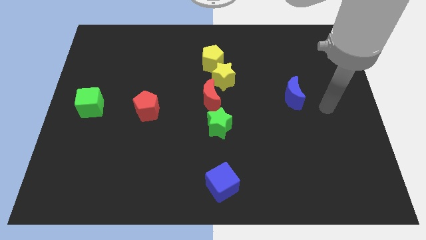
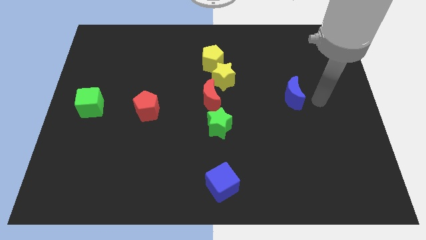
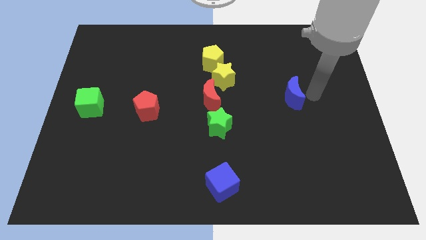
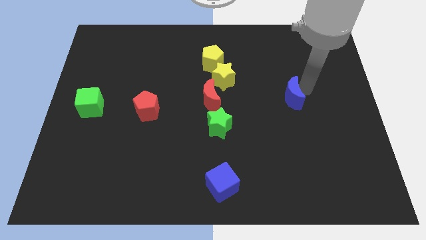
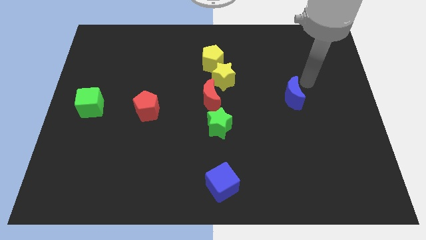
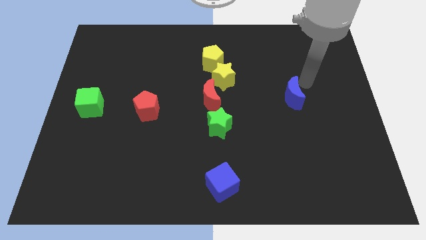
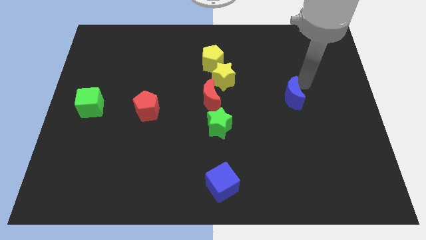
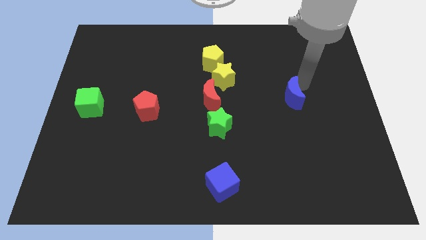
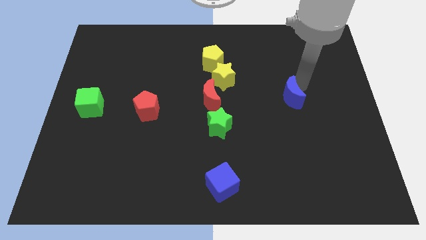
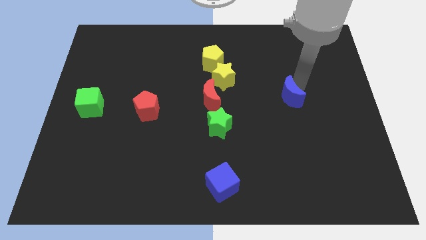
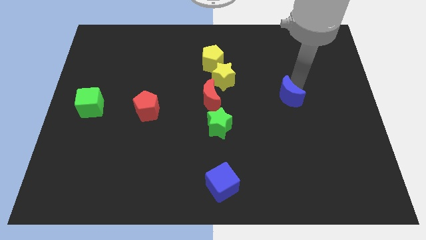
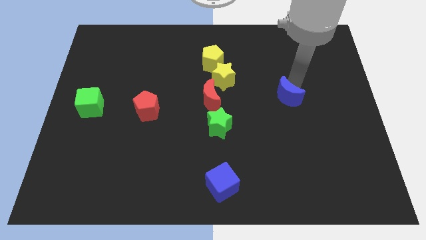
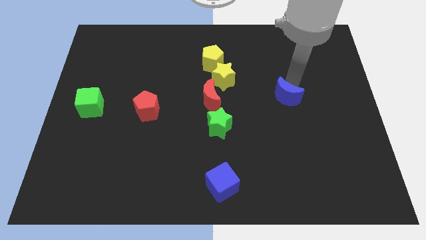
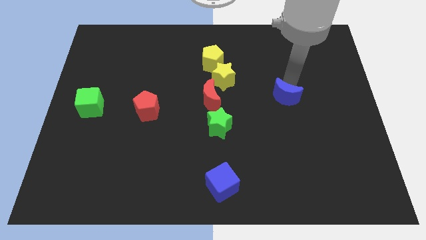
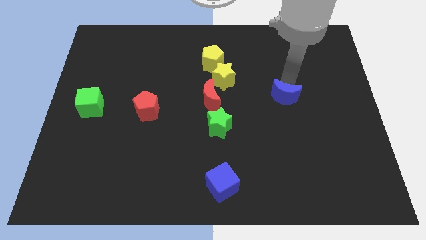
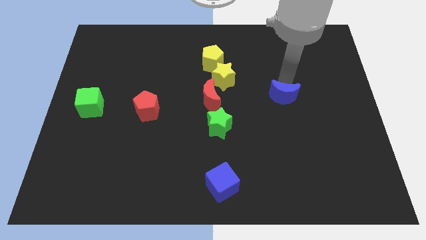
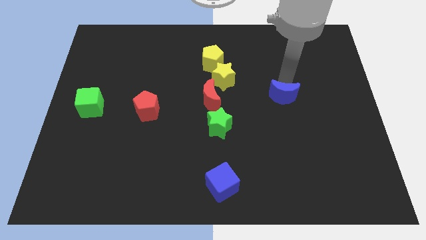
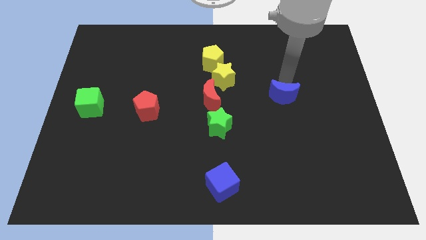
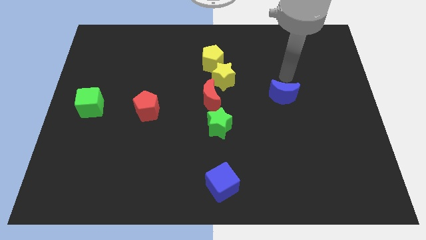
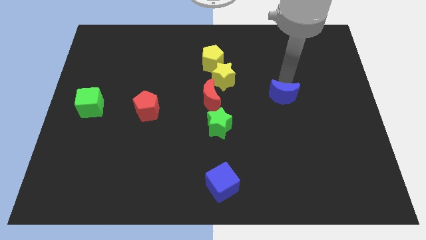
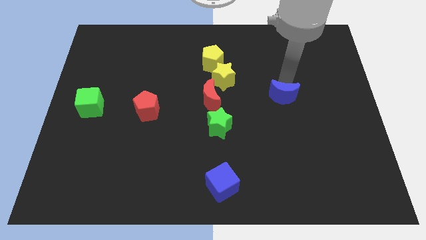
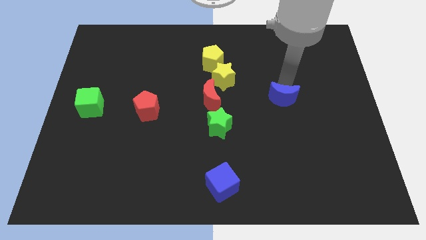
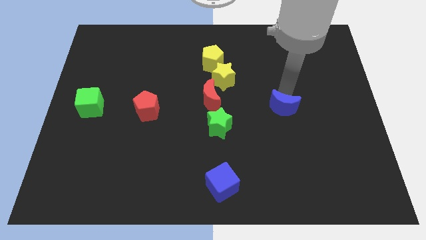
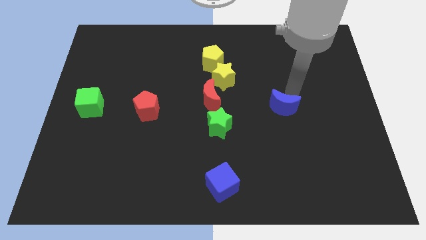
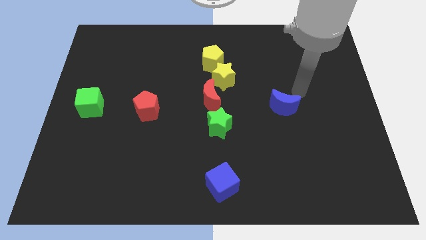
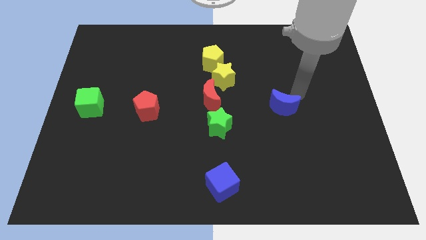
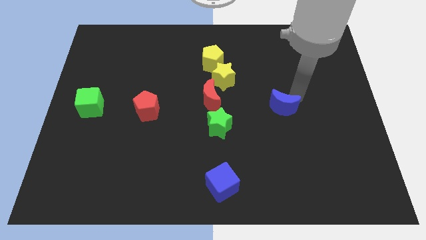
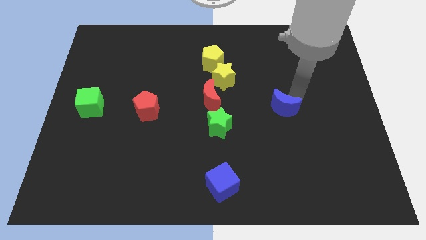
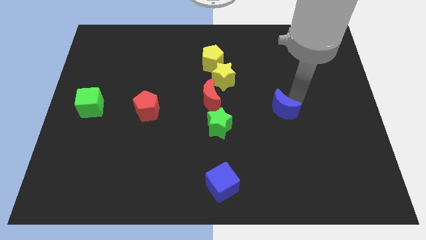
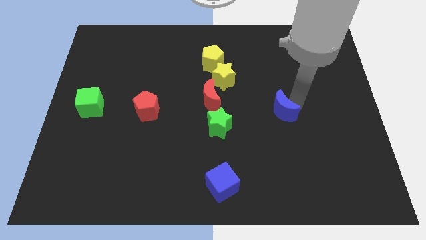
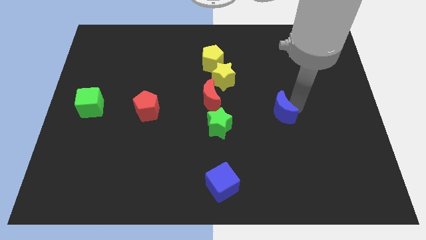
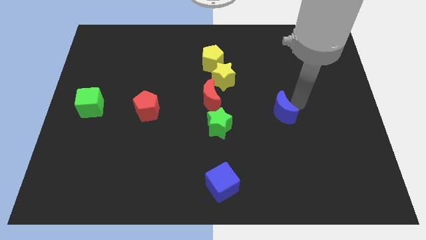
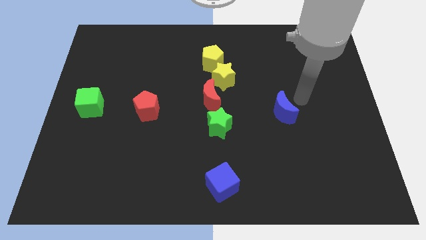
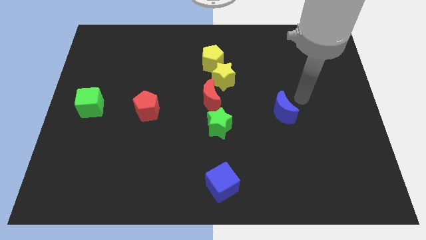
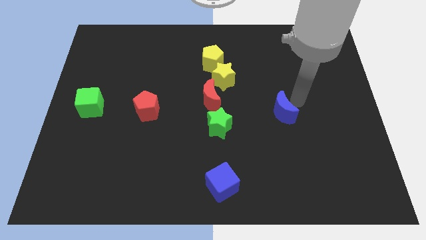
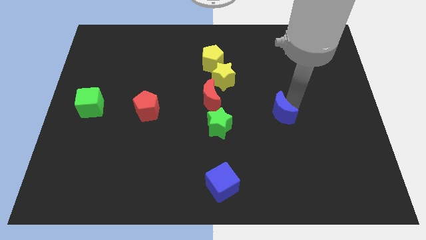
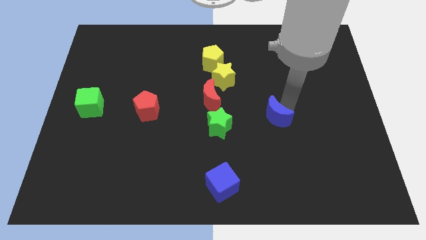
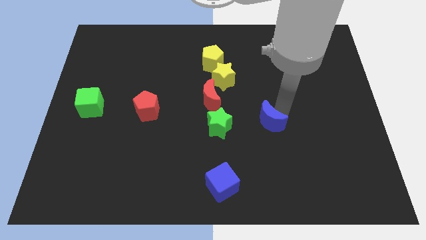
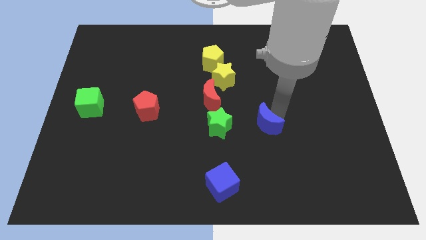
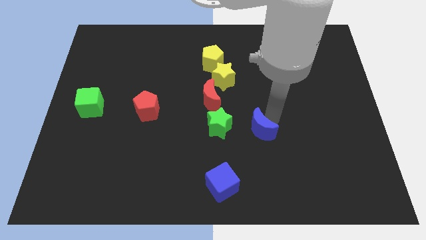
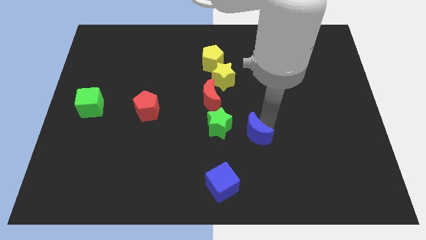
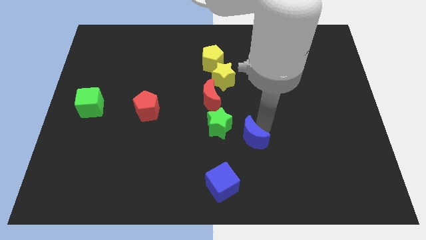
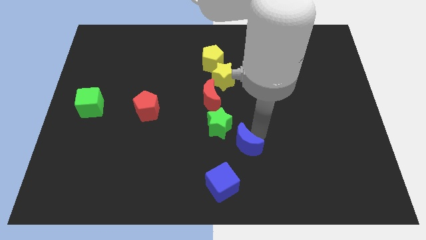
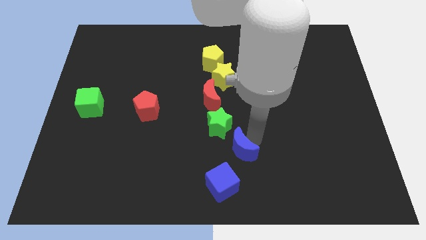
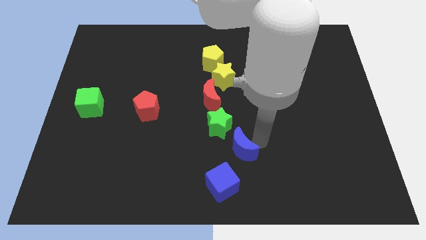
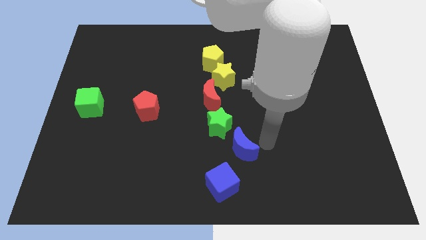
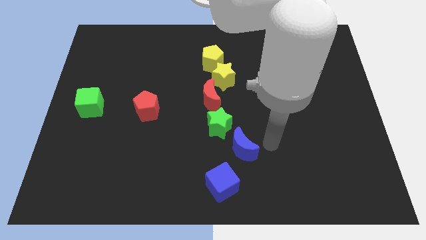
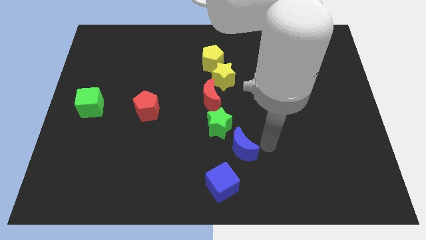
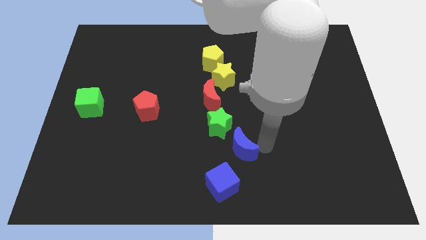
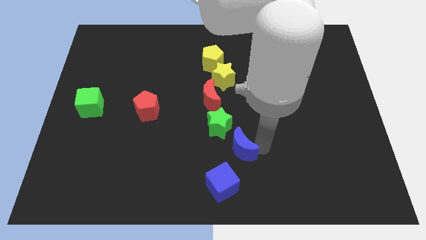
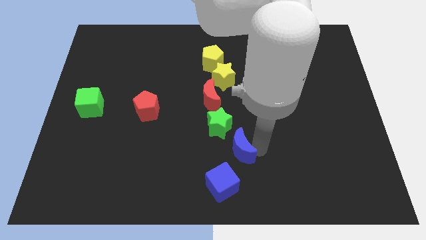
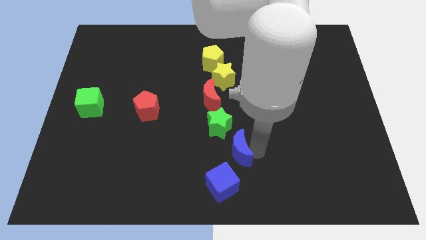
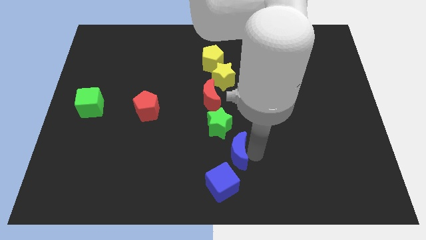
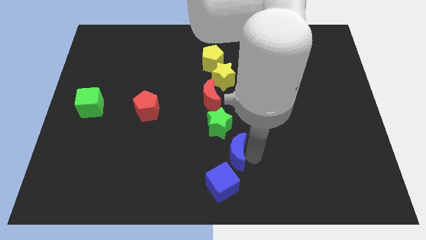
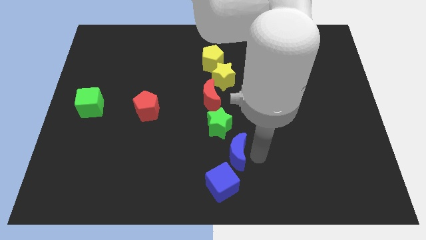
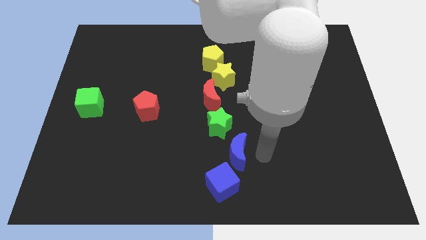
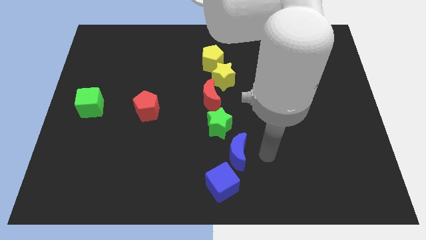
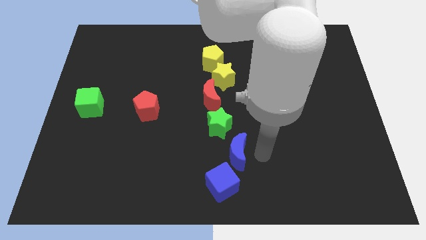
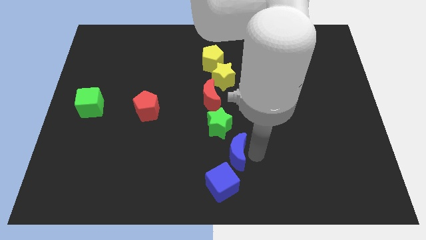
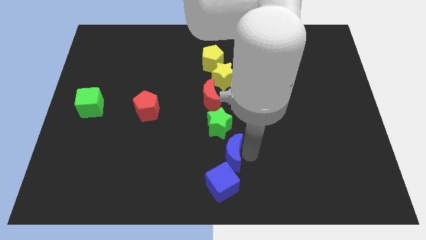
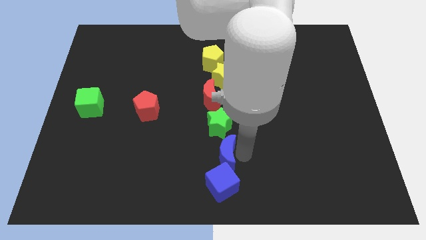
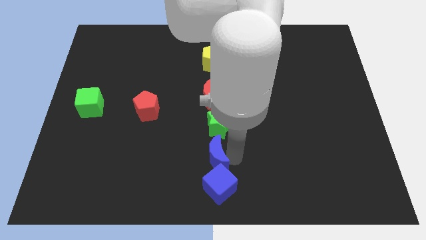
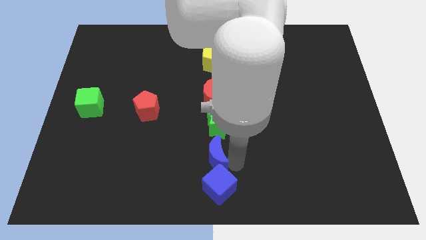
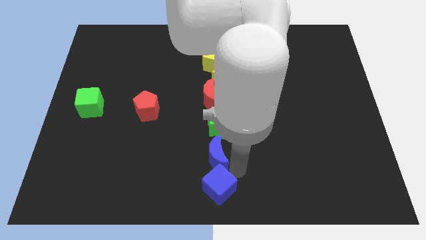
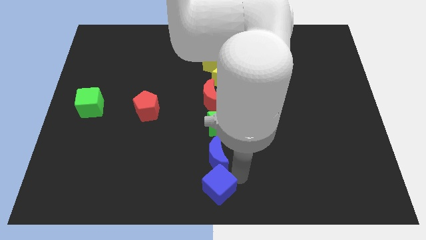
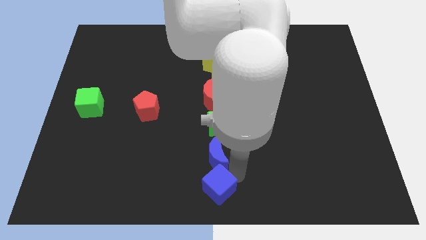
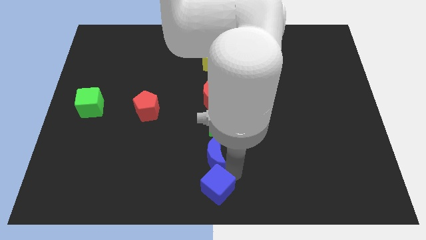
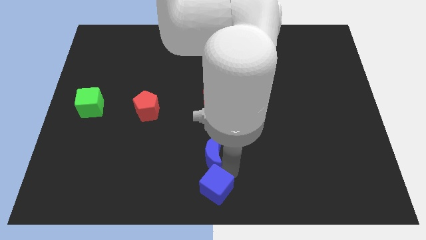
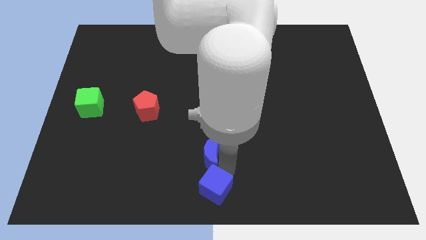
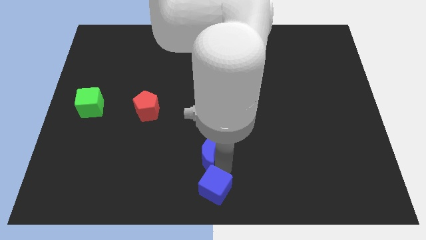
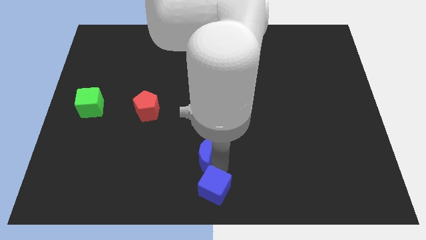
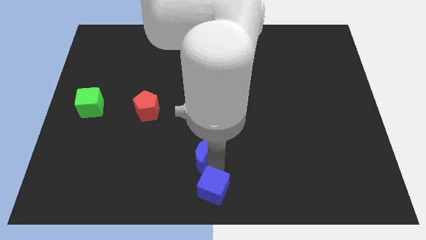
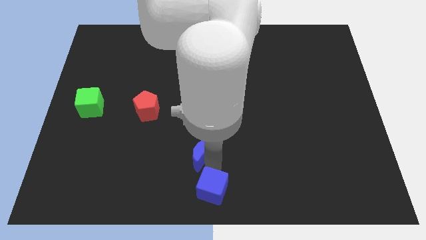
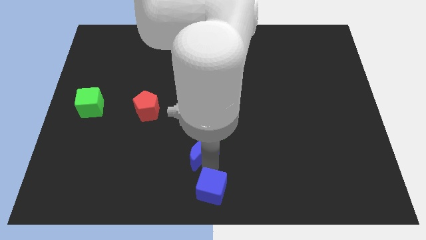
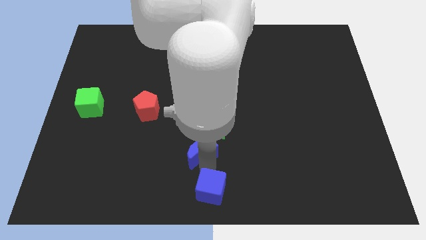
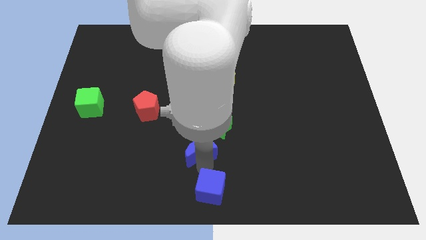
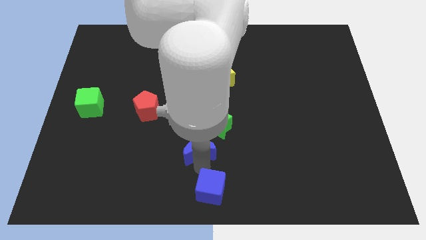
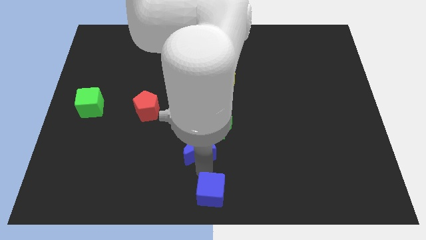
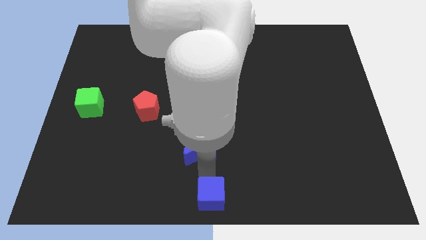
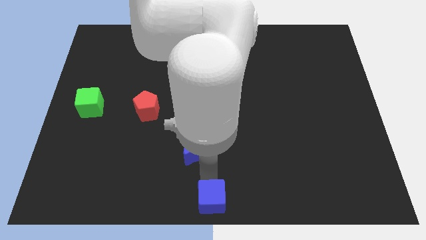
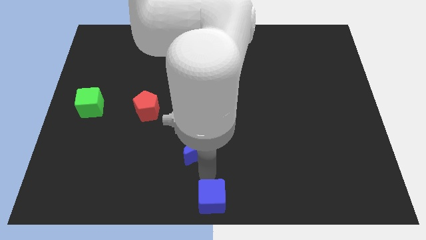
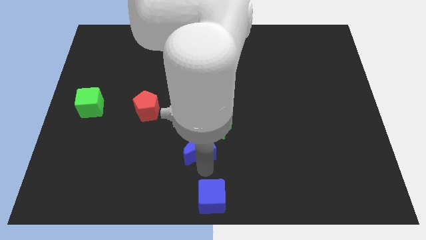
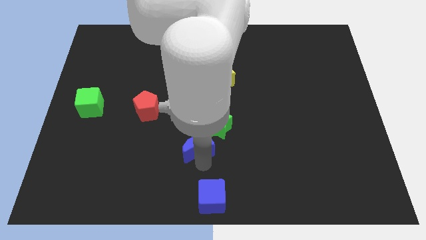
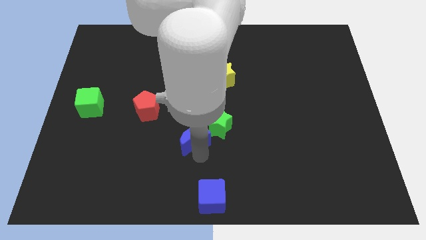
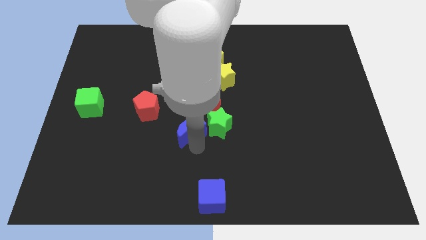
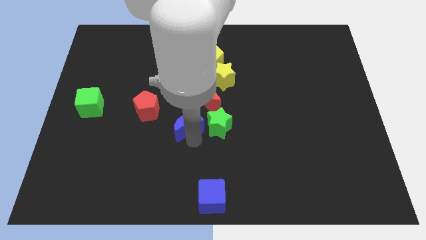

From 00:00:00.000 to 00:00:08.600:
move the blue moon to the left
